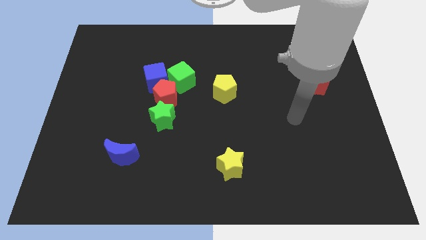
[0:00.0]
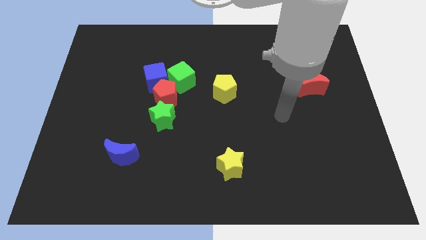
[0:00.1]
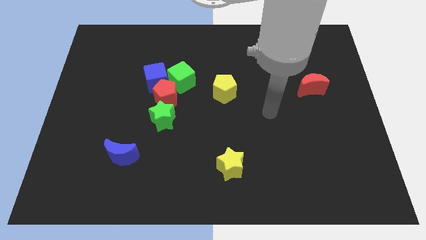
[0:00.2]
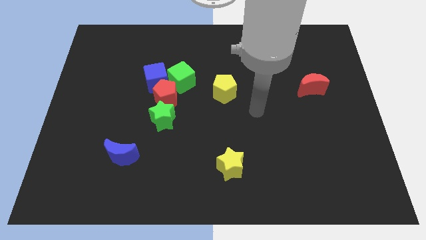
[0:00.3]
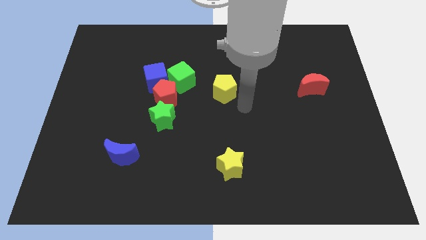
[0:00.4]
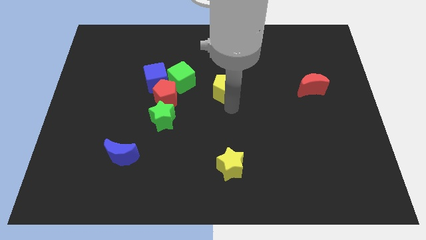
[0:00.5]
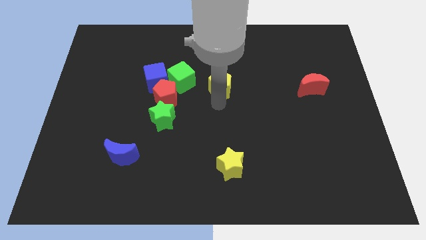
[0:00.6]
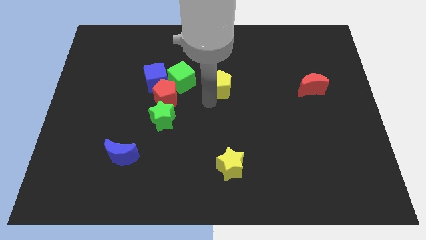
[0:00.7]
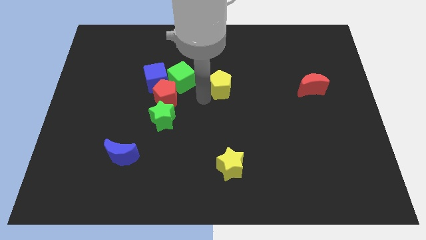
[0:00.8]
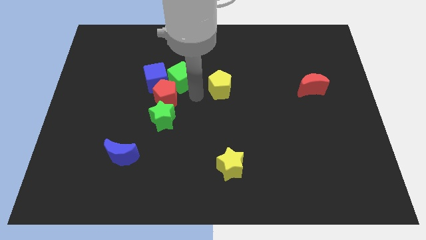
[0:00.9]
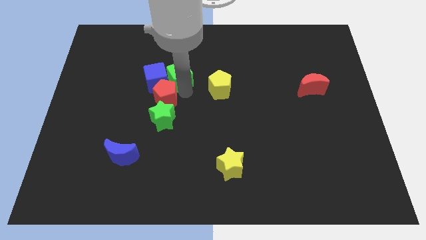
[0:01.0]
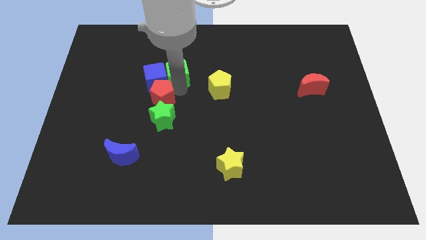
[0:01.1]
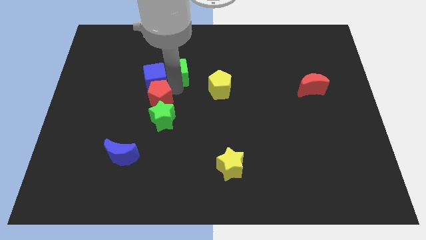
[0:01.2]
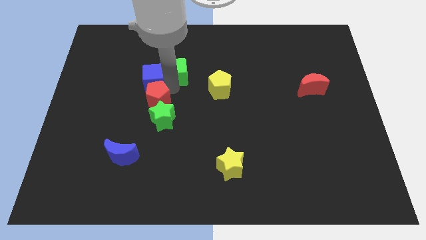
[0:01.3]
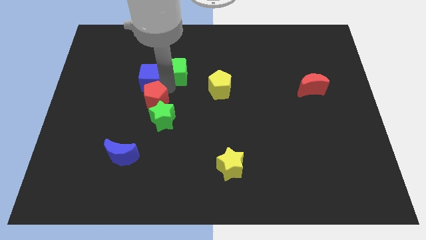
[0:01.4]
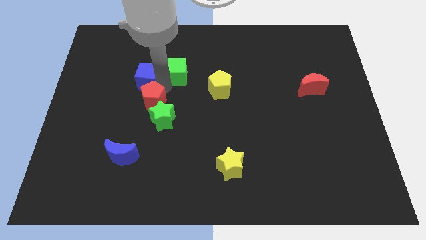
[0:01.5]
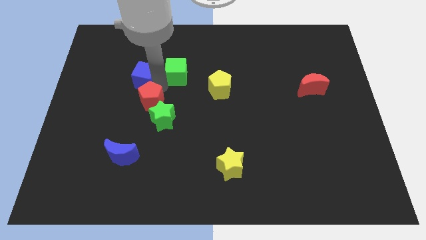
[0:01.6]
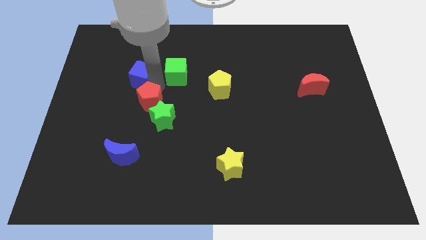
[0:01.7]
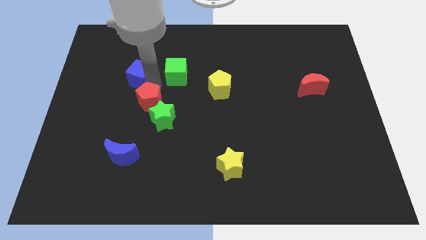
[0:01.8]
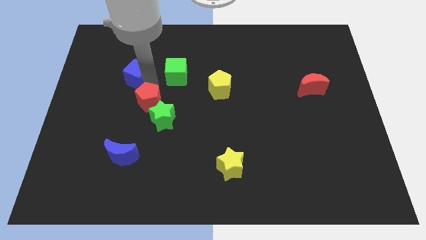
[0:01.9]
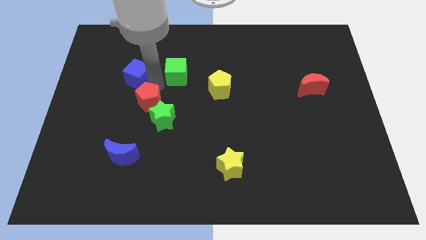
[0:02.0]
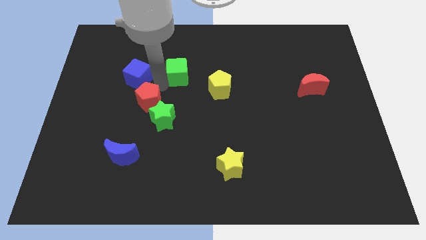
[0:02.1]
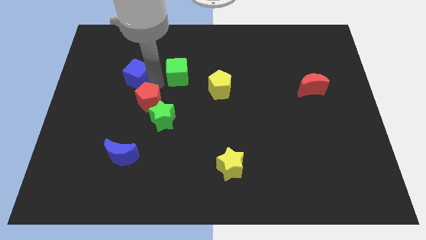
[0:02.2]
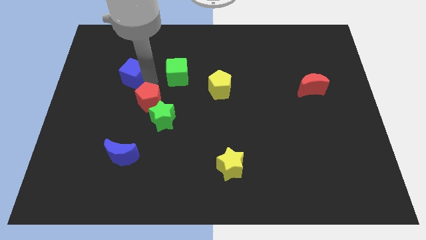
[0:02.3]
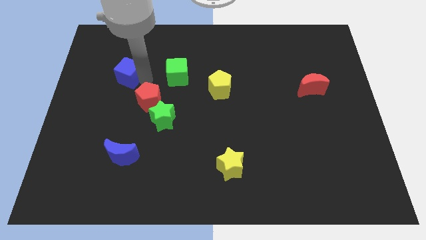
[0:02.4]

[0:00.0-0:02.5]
pull the blue cube apart from the red pentagon and green cube

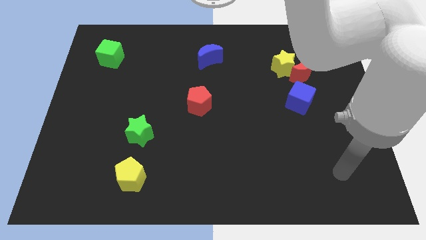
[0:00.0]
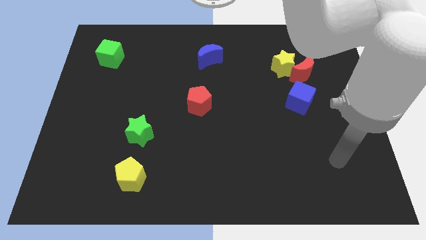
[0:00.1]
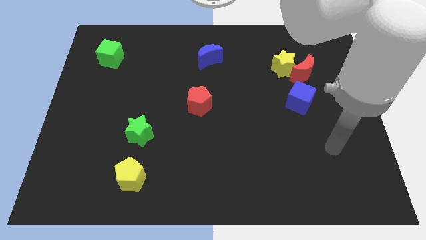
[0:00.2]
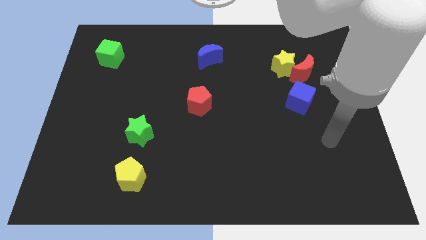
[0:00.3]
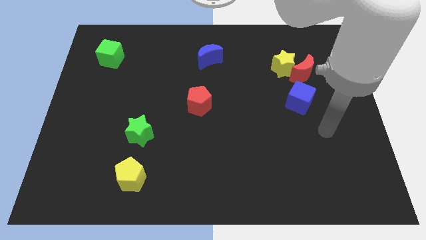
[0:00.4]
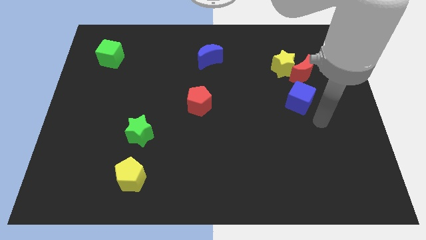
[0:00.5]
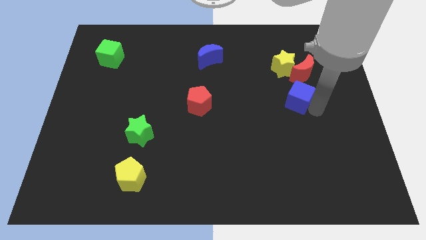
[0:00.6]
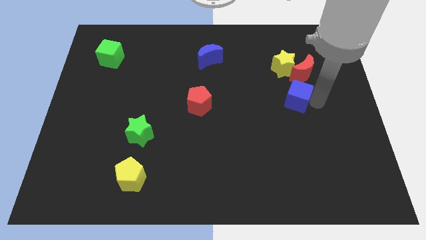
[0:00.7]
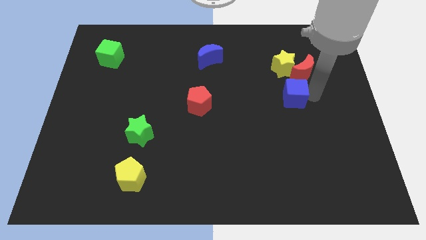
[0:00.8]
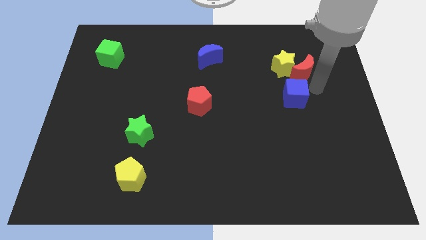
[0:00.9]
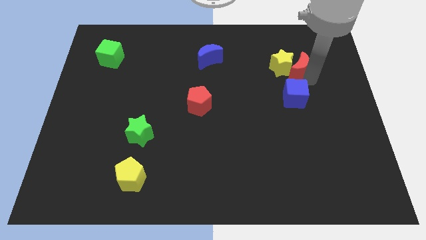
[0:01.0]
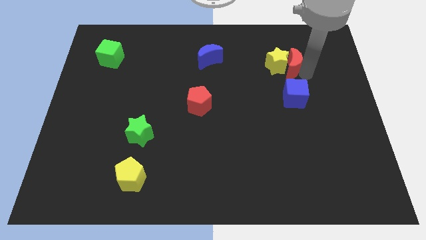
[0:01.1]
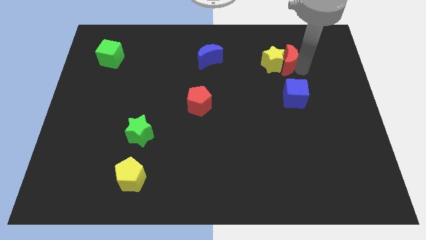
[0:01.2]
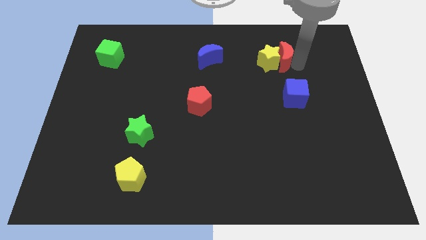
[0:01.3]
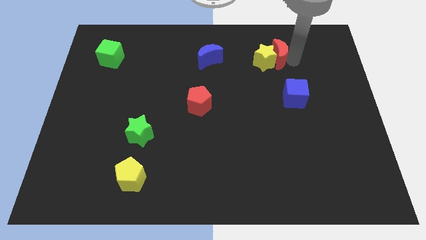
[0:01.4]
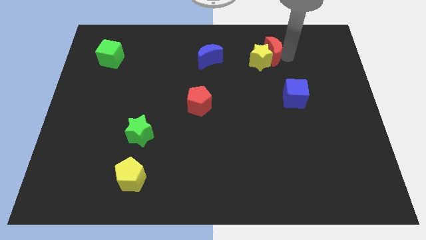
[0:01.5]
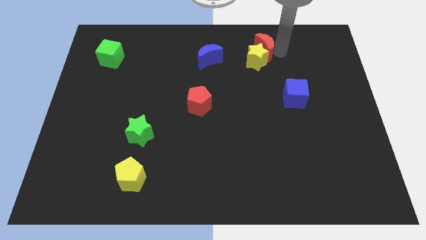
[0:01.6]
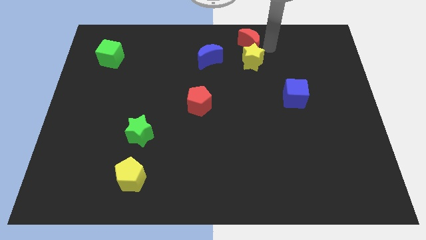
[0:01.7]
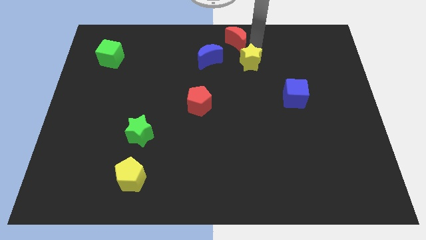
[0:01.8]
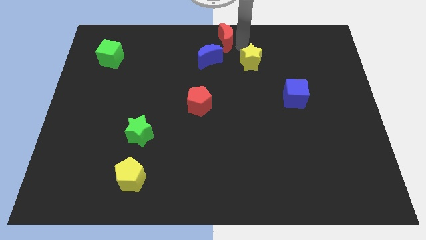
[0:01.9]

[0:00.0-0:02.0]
separate the yellow star from the red moon

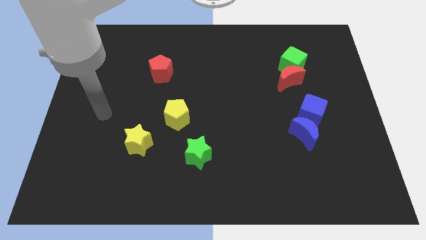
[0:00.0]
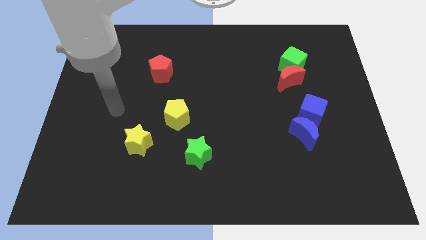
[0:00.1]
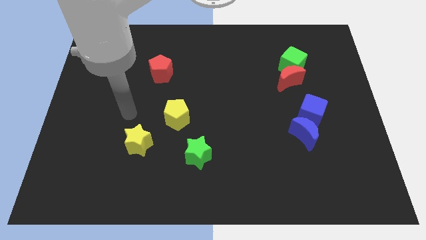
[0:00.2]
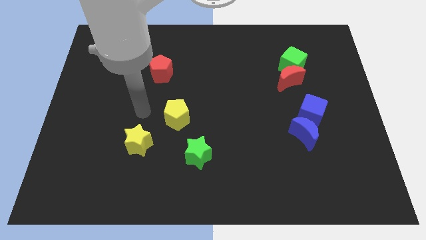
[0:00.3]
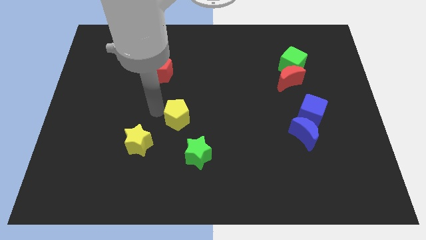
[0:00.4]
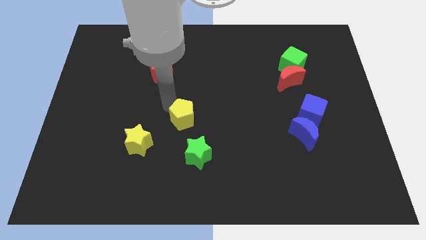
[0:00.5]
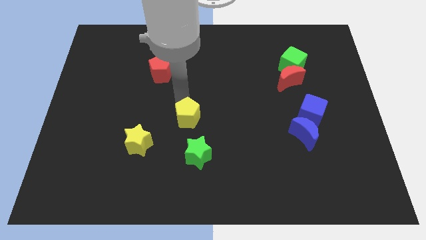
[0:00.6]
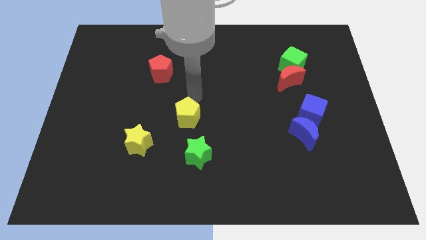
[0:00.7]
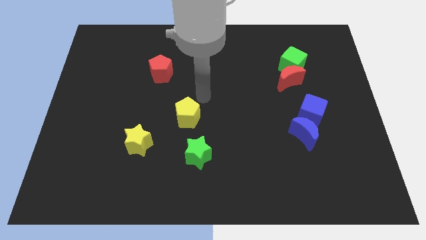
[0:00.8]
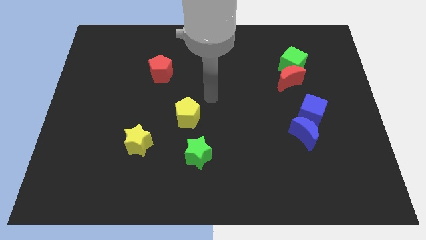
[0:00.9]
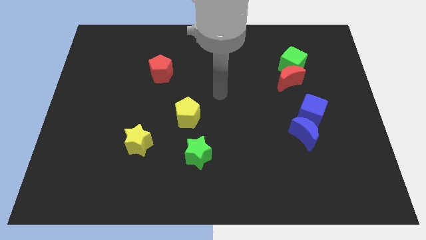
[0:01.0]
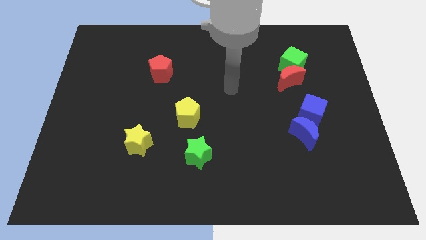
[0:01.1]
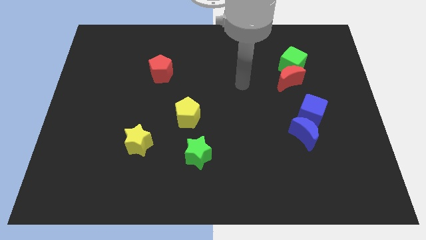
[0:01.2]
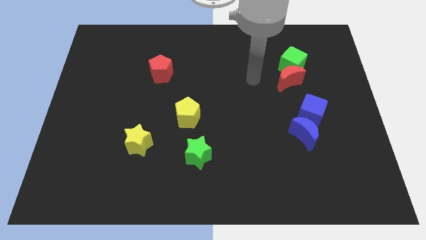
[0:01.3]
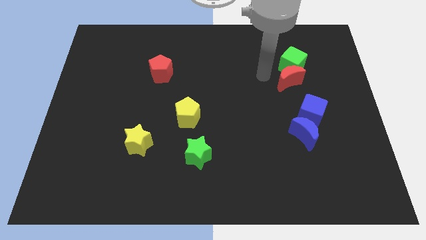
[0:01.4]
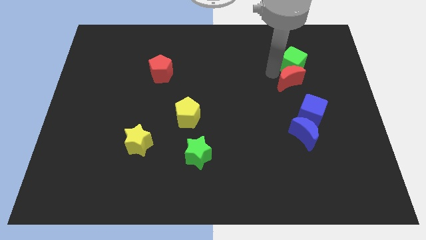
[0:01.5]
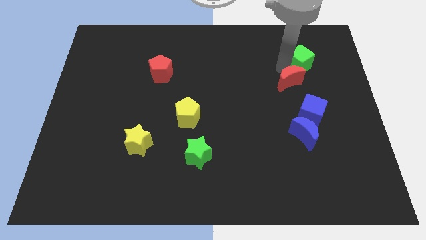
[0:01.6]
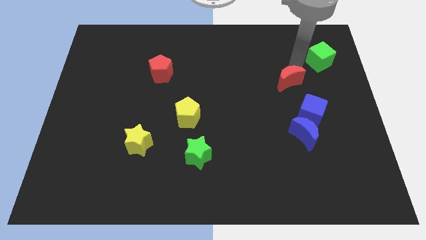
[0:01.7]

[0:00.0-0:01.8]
move the red moon away from the green cube

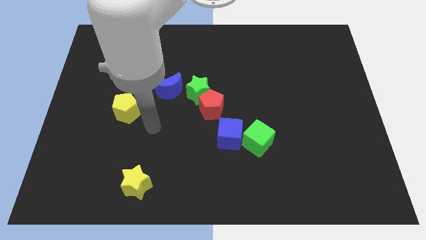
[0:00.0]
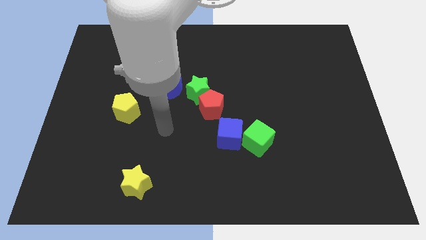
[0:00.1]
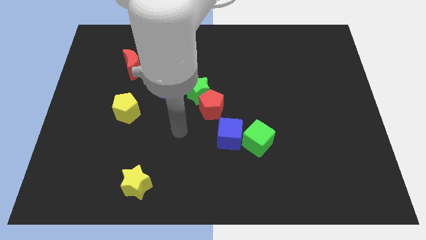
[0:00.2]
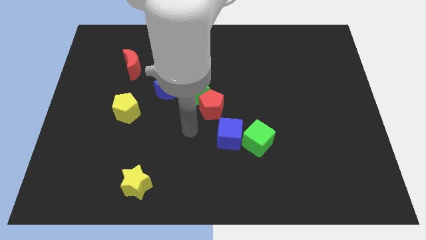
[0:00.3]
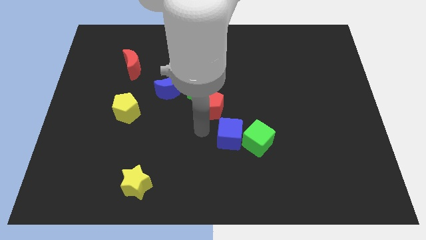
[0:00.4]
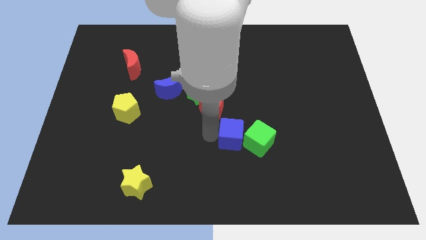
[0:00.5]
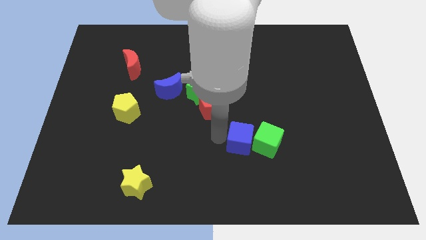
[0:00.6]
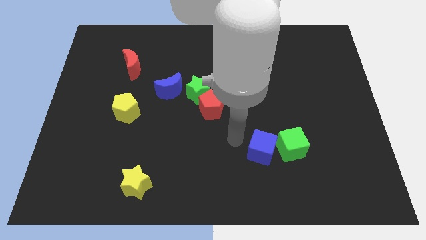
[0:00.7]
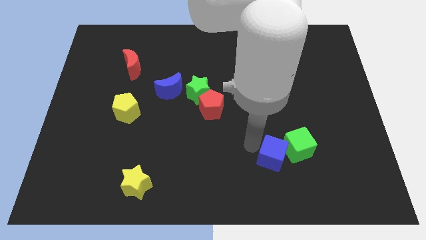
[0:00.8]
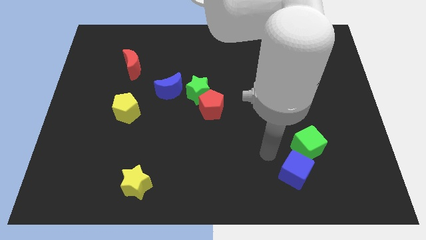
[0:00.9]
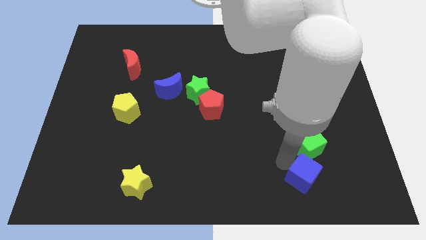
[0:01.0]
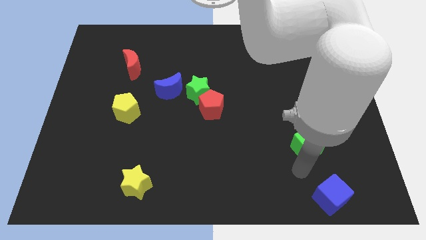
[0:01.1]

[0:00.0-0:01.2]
pull the green cube apart from the blue cube

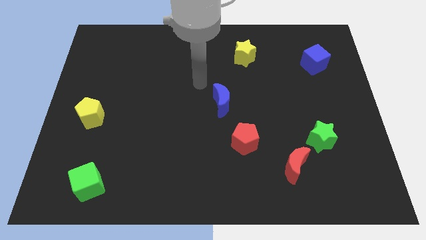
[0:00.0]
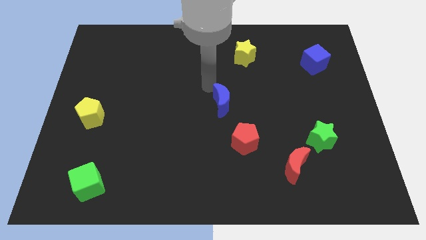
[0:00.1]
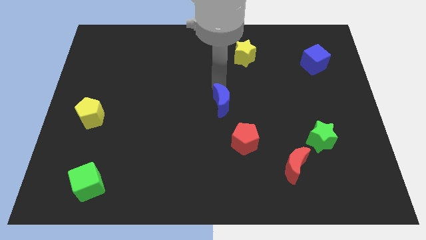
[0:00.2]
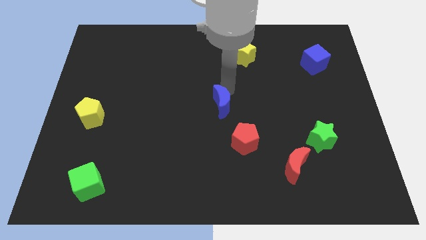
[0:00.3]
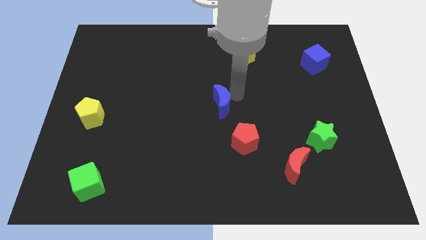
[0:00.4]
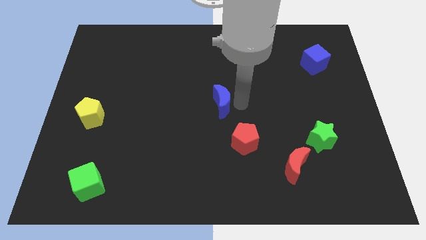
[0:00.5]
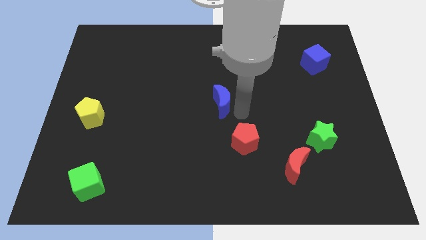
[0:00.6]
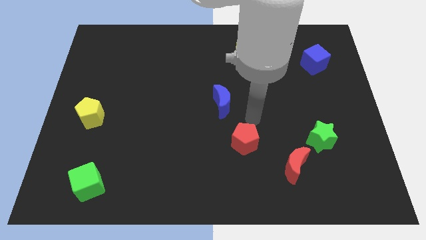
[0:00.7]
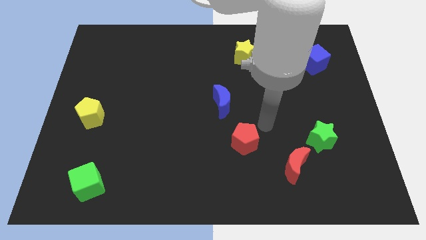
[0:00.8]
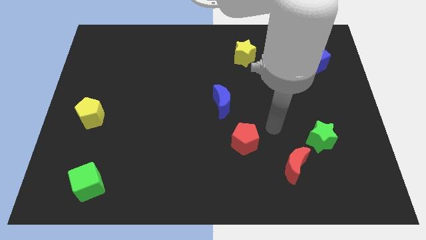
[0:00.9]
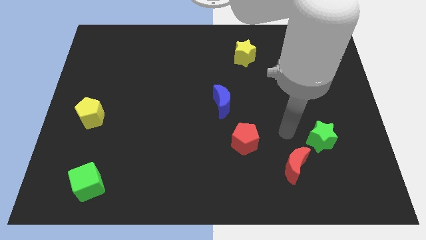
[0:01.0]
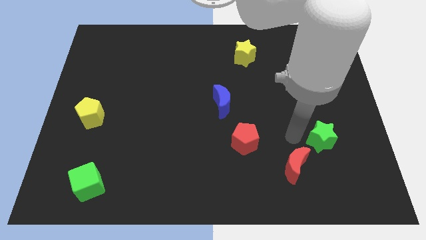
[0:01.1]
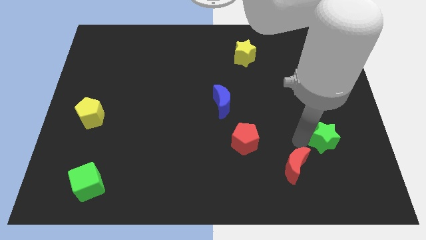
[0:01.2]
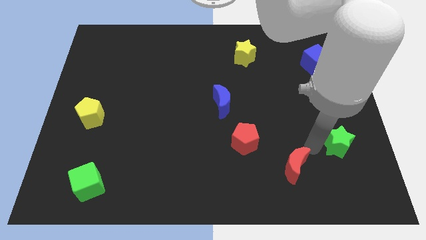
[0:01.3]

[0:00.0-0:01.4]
separate the red moon from the green star

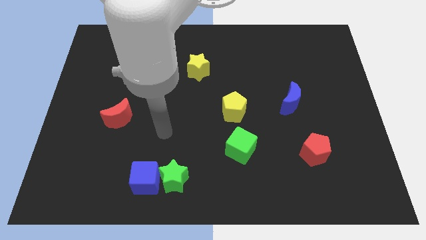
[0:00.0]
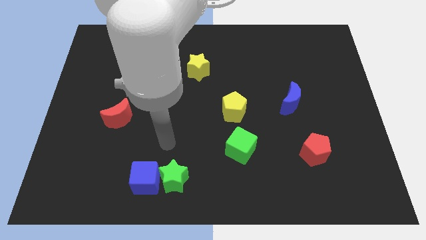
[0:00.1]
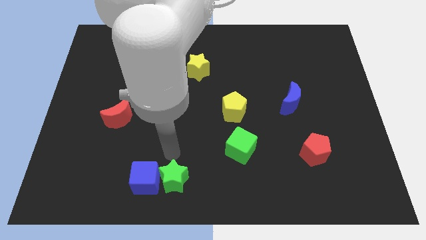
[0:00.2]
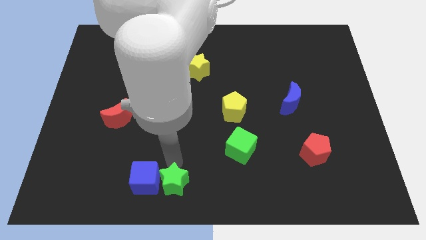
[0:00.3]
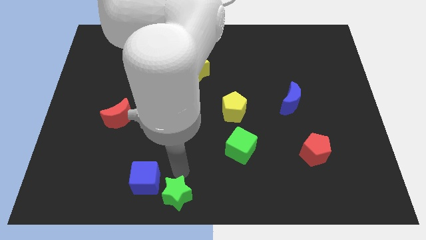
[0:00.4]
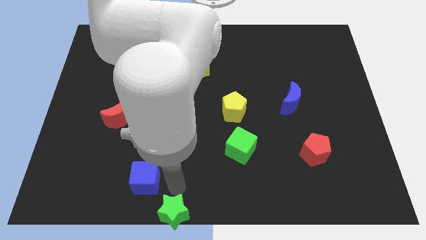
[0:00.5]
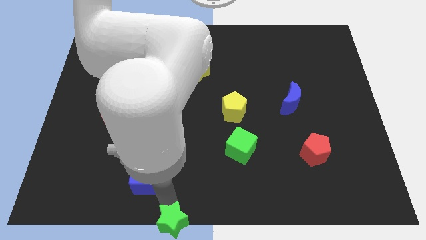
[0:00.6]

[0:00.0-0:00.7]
move the blue cube away from the green star
